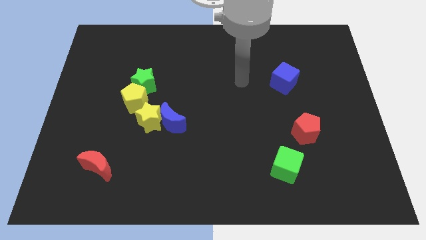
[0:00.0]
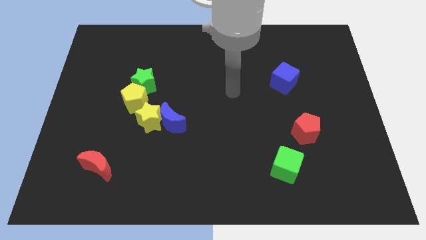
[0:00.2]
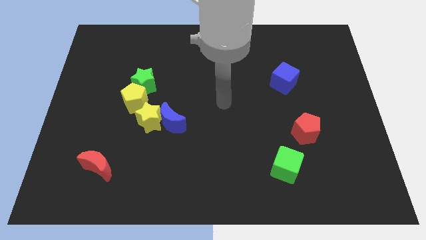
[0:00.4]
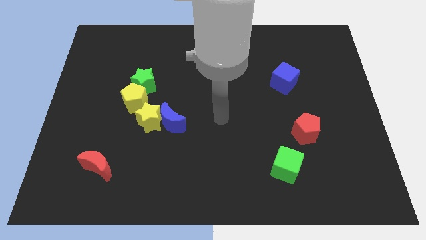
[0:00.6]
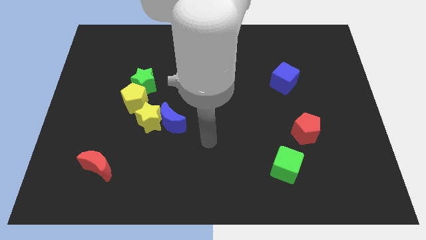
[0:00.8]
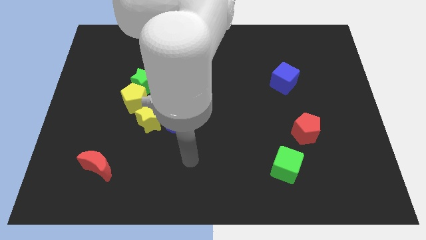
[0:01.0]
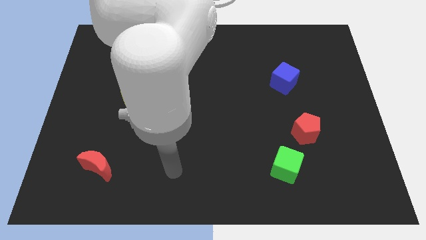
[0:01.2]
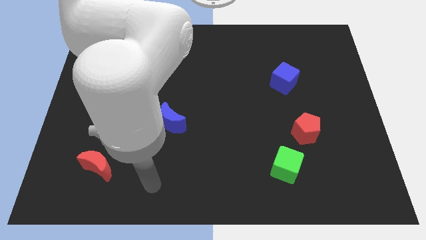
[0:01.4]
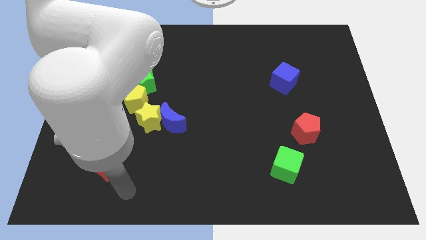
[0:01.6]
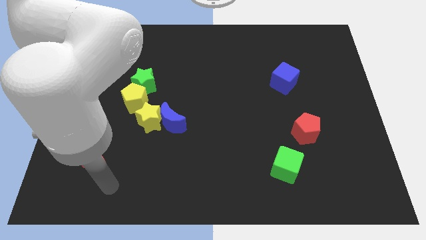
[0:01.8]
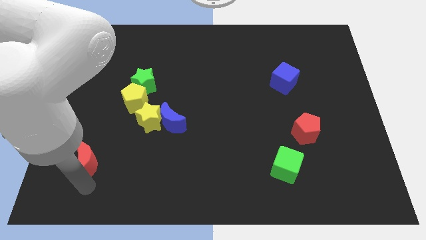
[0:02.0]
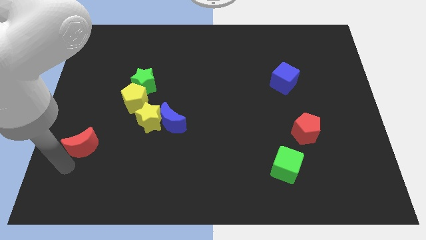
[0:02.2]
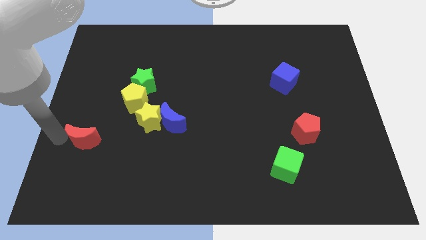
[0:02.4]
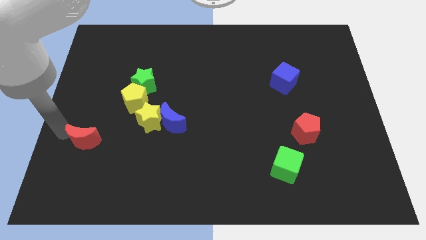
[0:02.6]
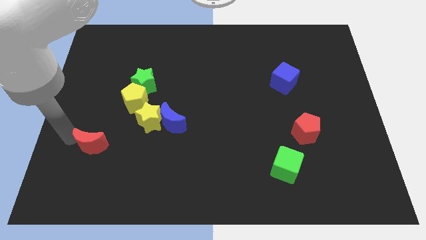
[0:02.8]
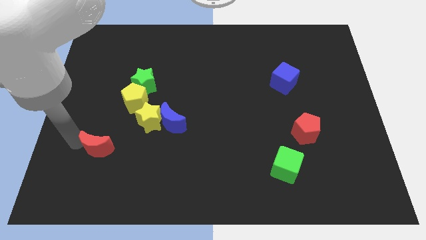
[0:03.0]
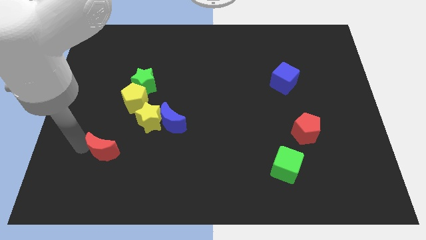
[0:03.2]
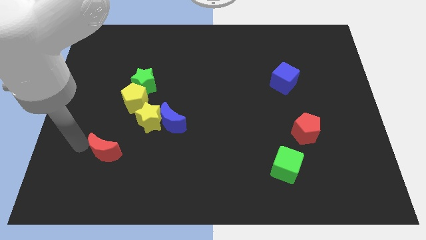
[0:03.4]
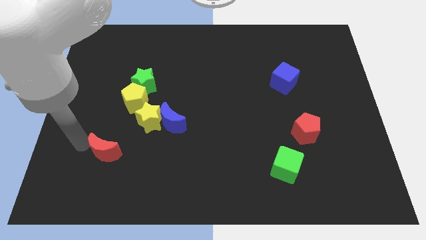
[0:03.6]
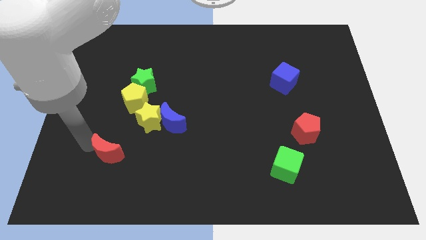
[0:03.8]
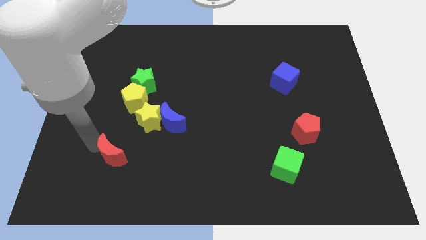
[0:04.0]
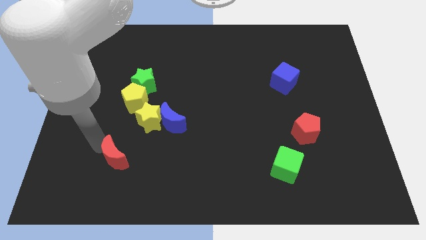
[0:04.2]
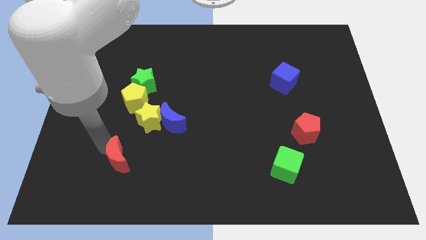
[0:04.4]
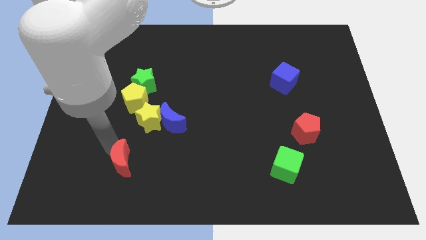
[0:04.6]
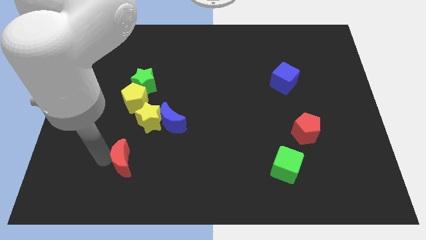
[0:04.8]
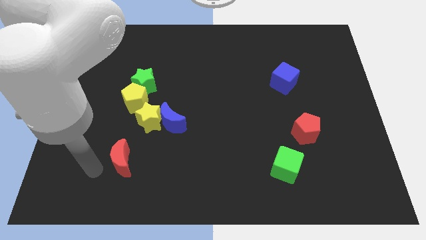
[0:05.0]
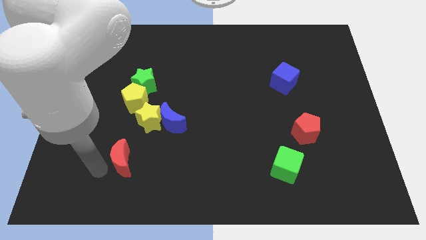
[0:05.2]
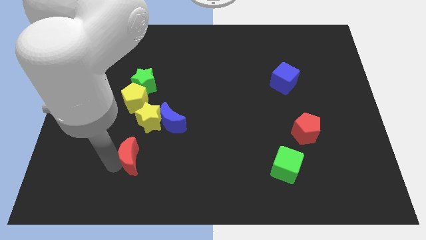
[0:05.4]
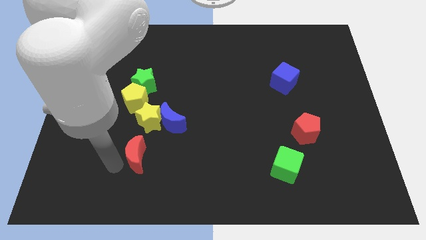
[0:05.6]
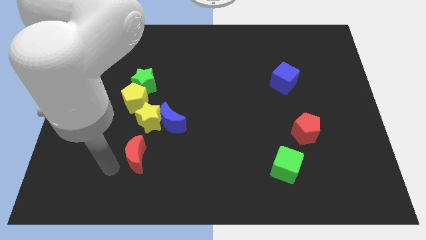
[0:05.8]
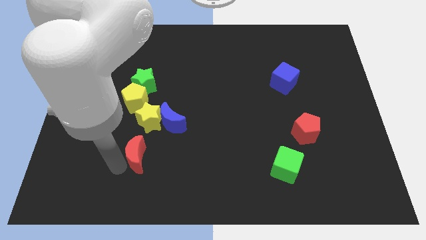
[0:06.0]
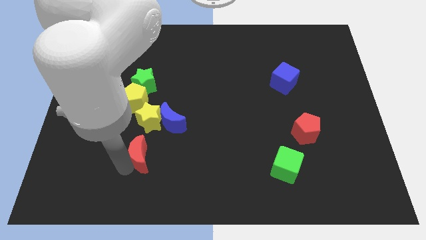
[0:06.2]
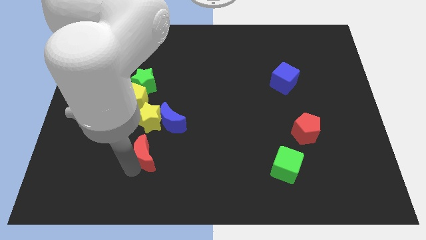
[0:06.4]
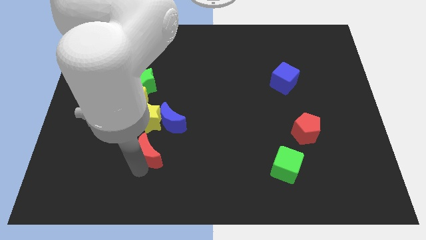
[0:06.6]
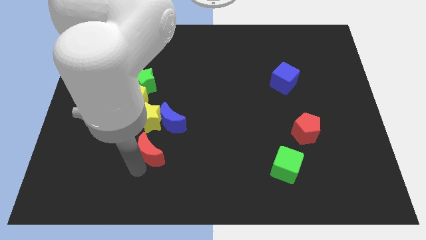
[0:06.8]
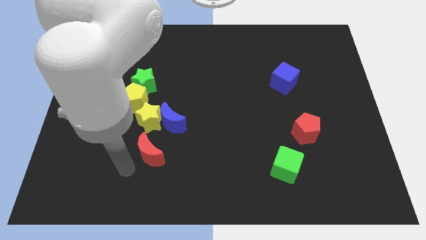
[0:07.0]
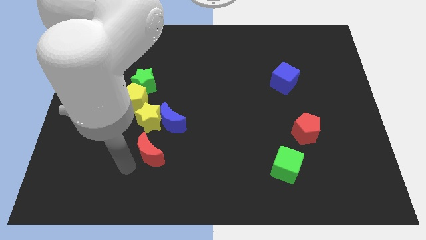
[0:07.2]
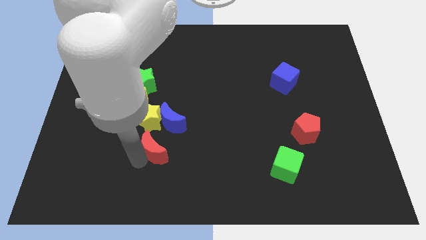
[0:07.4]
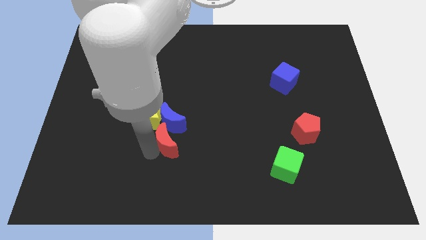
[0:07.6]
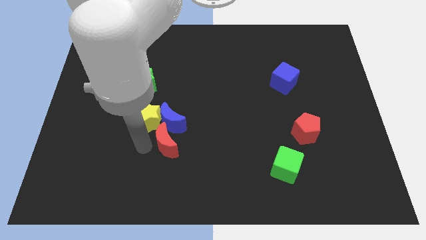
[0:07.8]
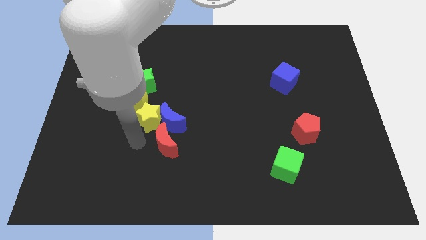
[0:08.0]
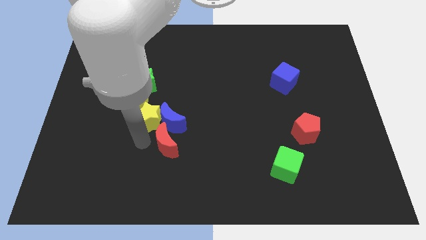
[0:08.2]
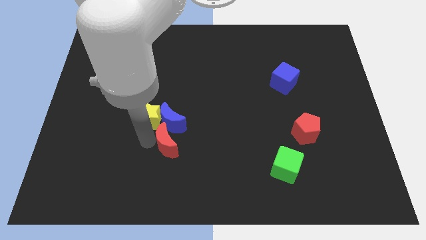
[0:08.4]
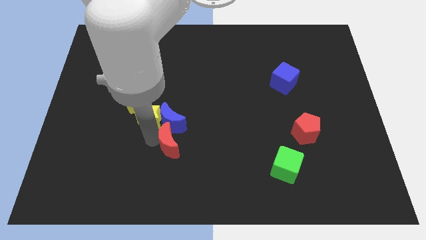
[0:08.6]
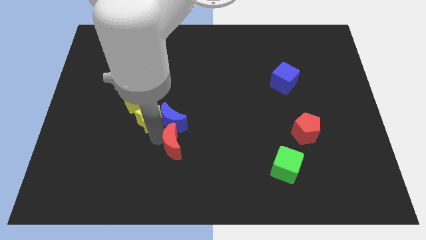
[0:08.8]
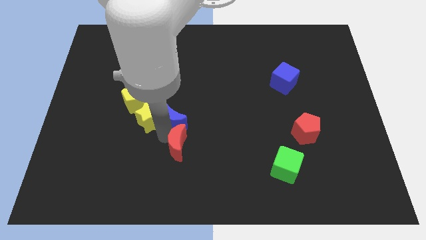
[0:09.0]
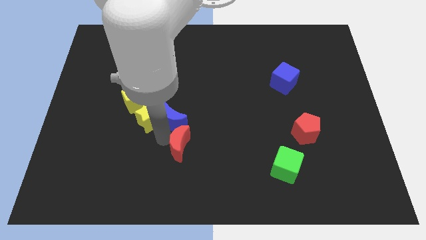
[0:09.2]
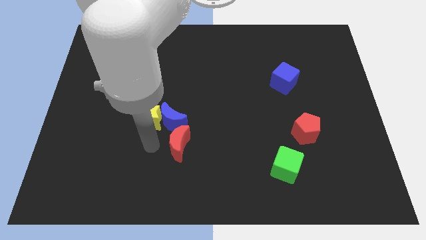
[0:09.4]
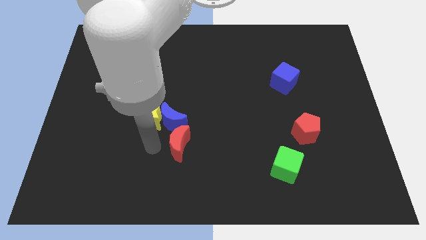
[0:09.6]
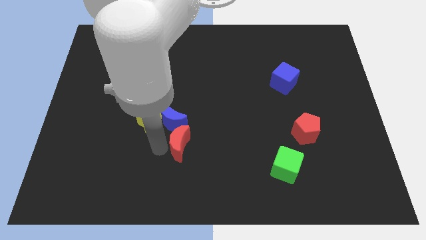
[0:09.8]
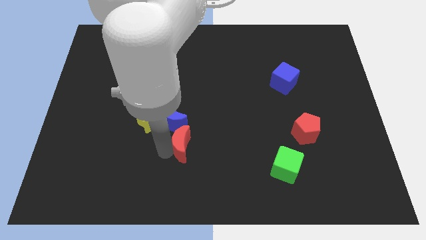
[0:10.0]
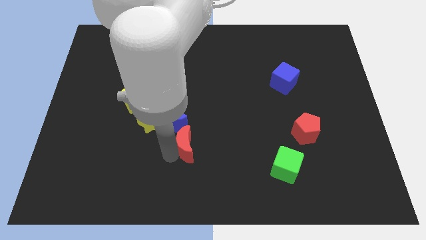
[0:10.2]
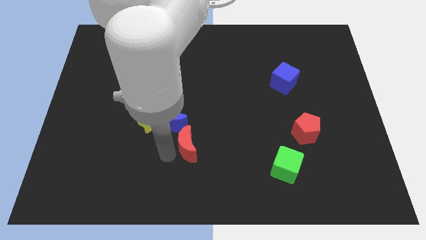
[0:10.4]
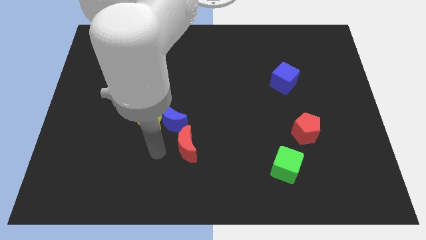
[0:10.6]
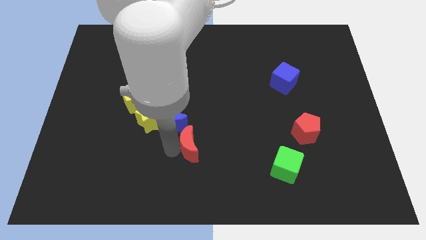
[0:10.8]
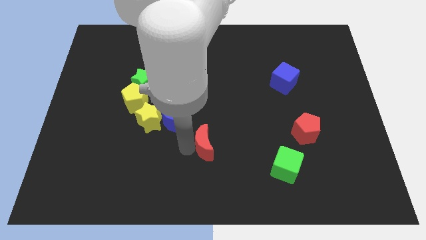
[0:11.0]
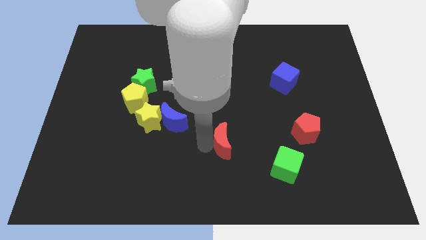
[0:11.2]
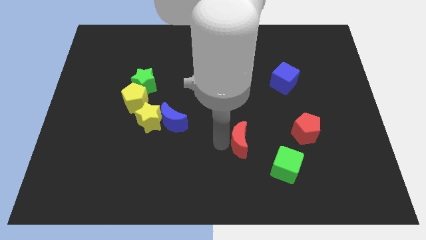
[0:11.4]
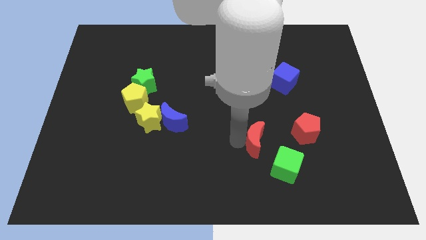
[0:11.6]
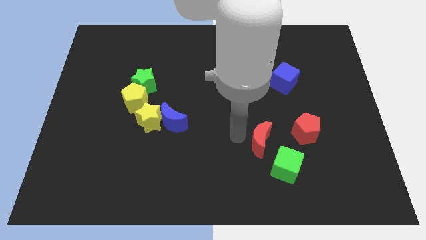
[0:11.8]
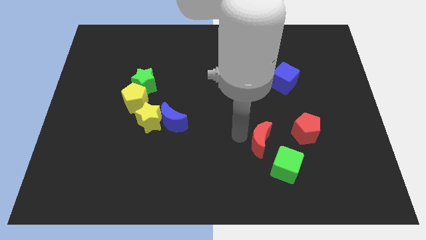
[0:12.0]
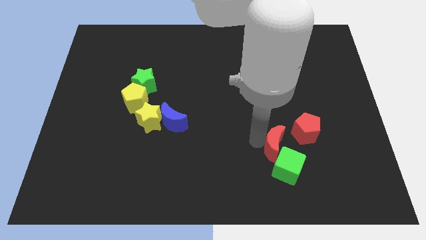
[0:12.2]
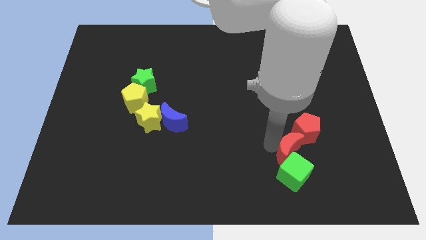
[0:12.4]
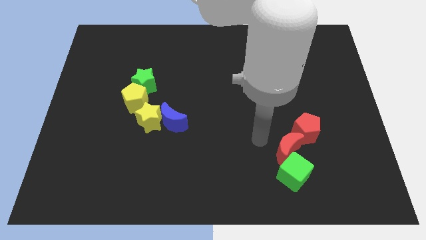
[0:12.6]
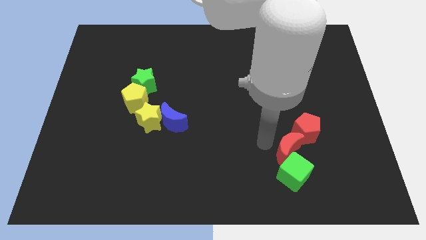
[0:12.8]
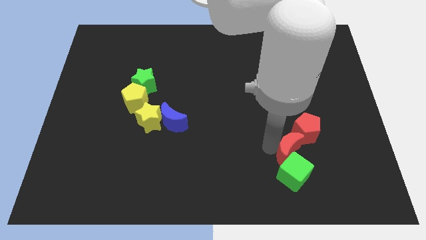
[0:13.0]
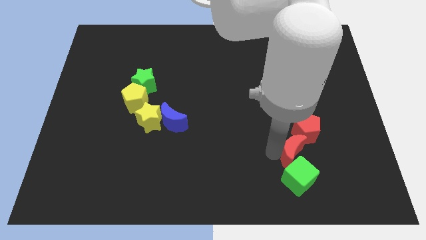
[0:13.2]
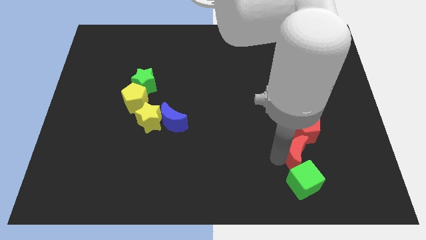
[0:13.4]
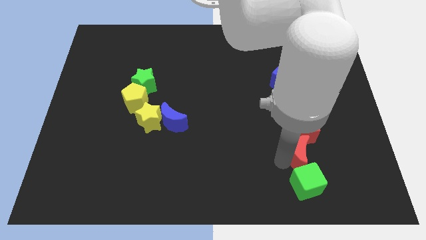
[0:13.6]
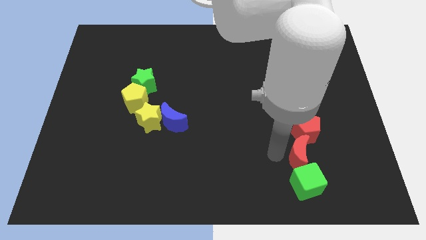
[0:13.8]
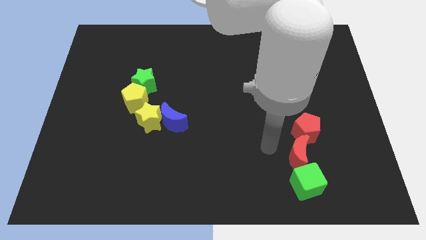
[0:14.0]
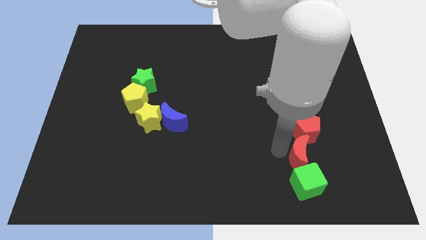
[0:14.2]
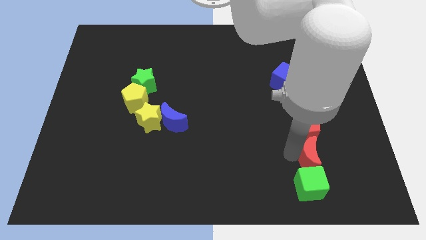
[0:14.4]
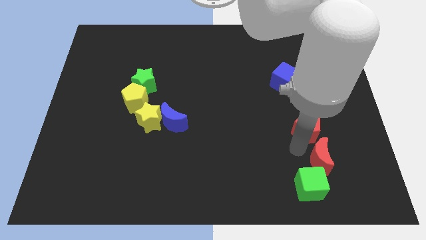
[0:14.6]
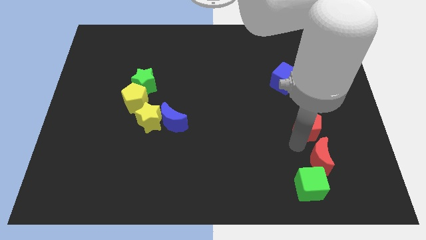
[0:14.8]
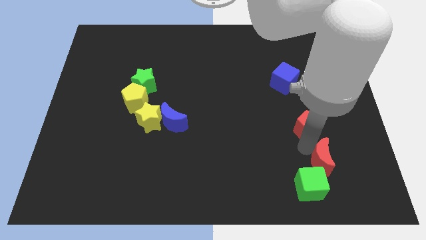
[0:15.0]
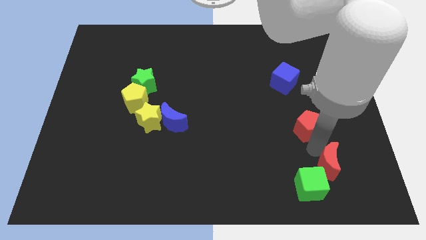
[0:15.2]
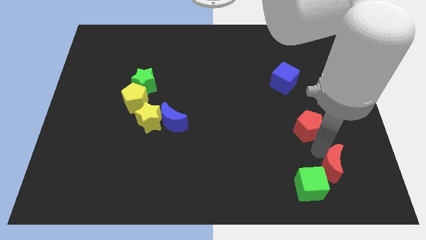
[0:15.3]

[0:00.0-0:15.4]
slide the red moon to the right of the green cube
